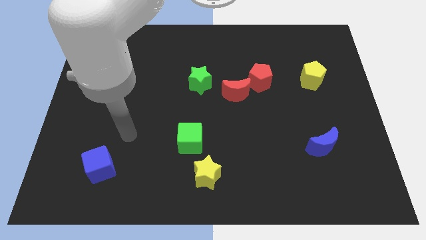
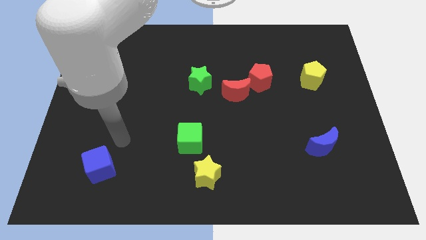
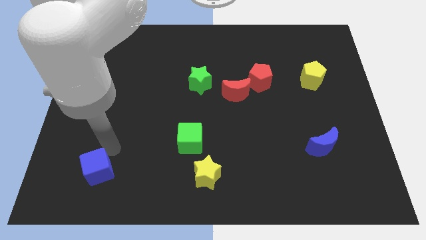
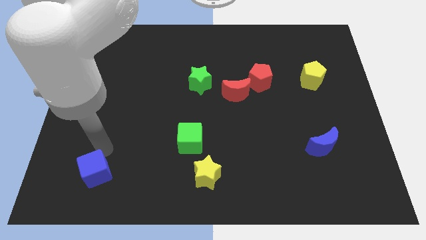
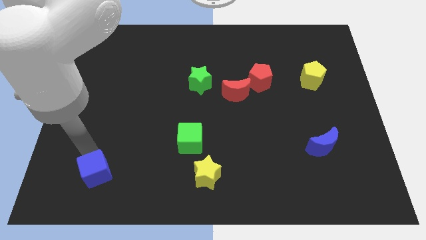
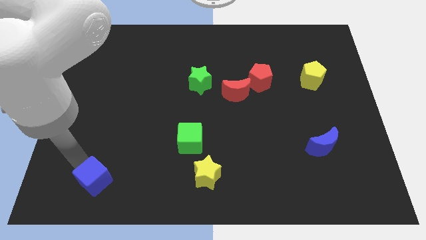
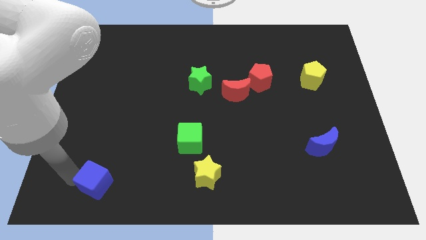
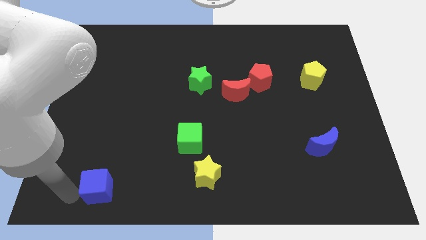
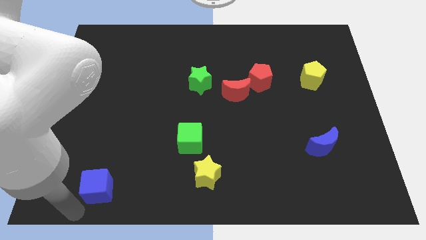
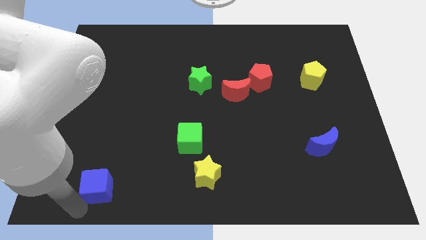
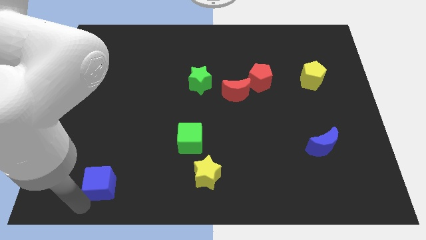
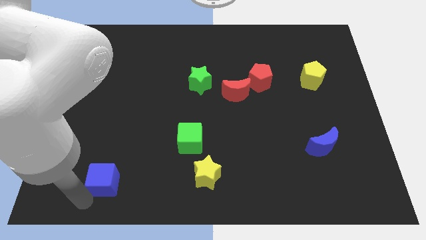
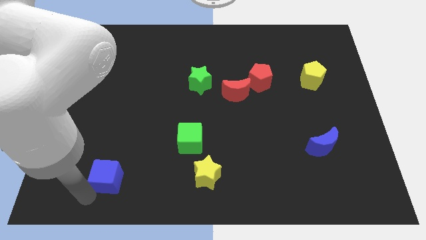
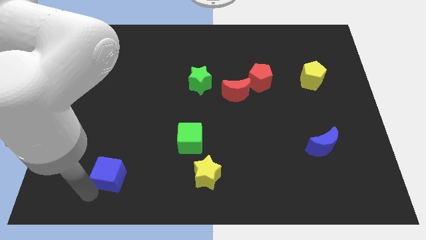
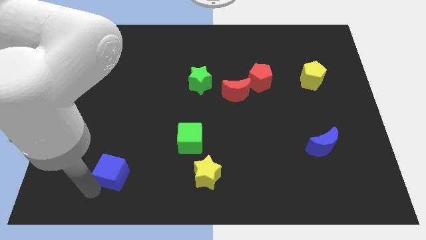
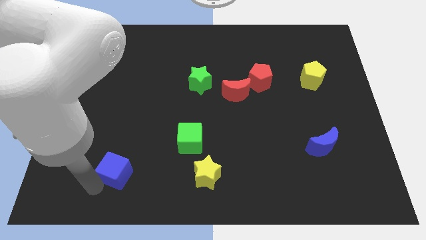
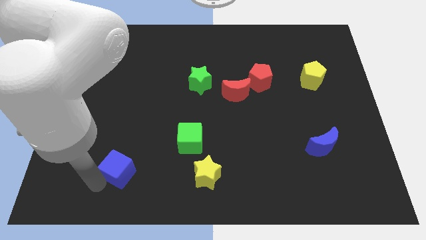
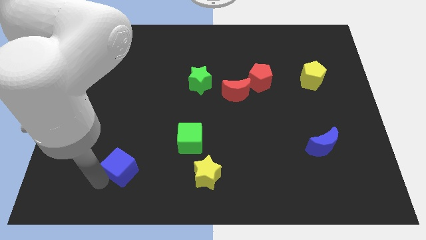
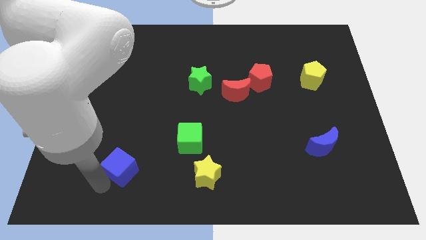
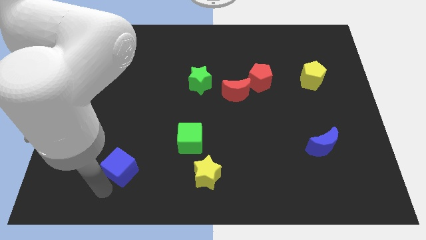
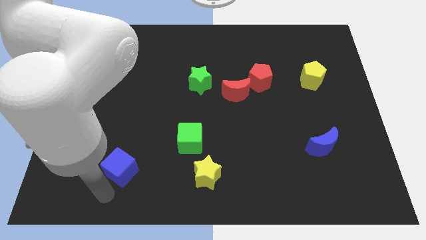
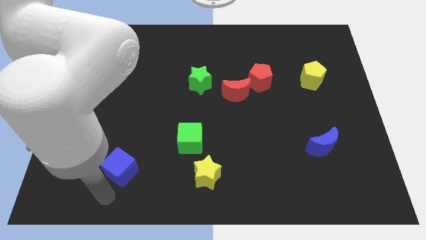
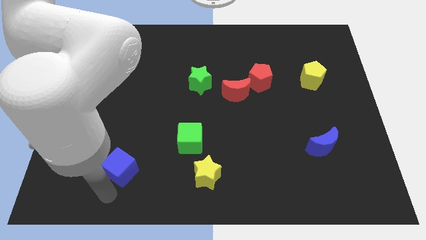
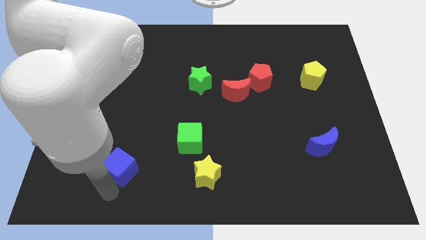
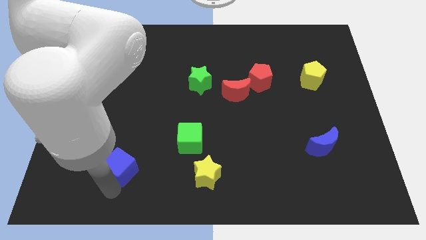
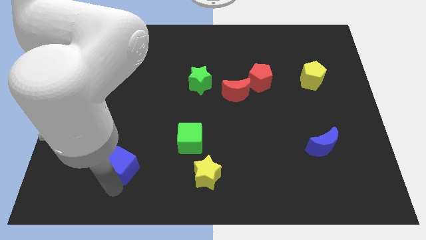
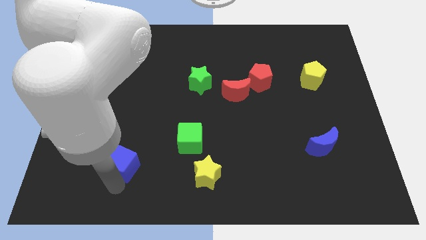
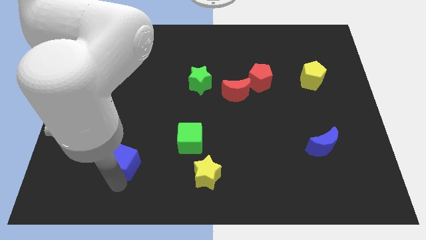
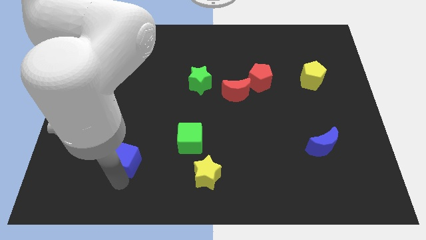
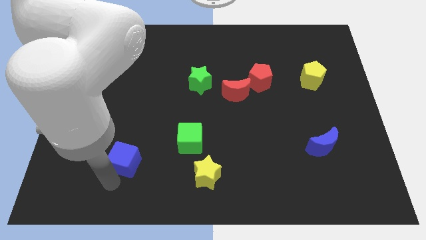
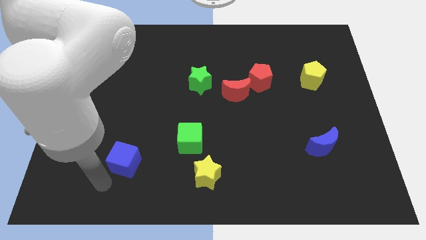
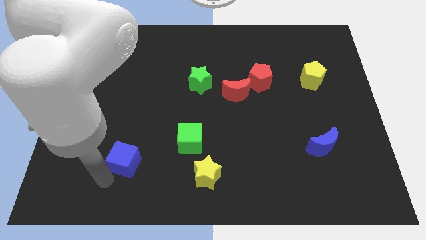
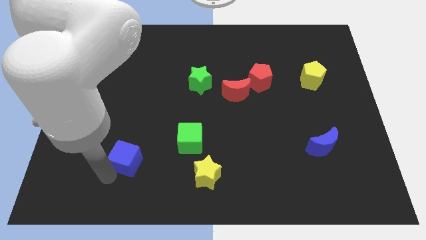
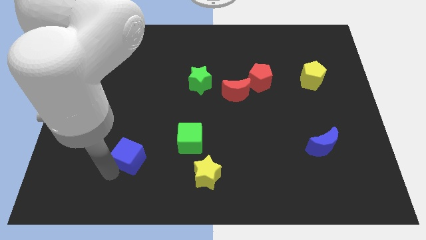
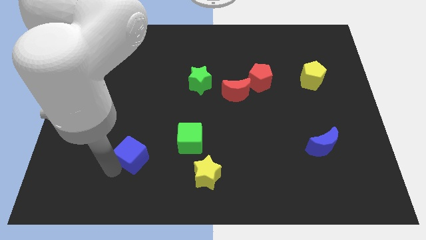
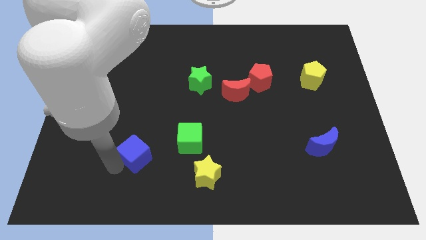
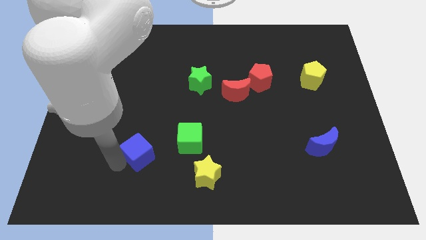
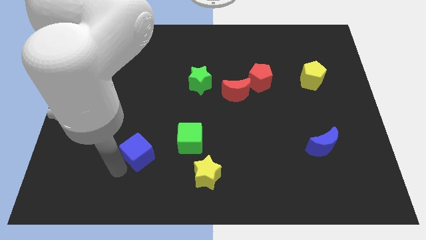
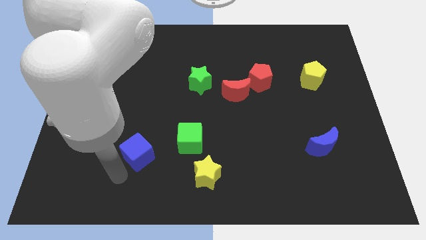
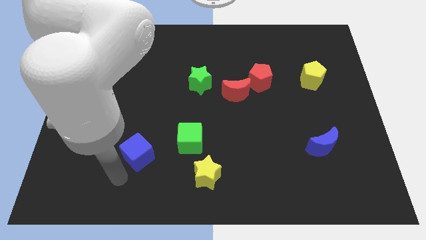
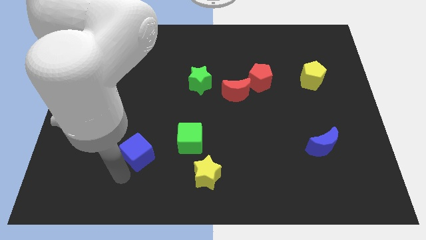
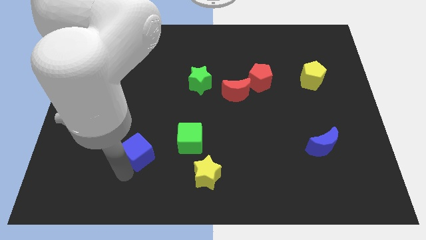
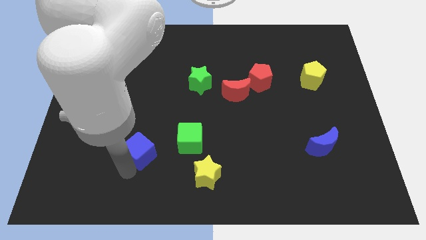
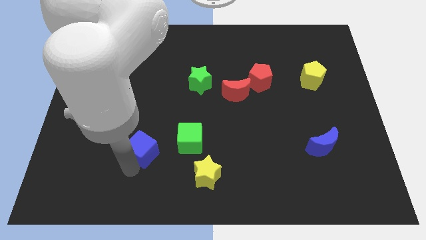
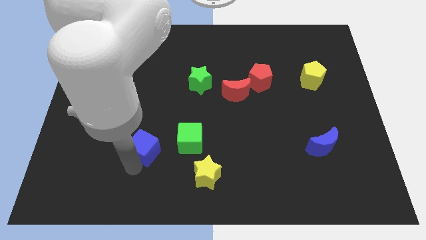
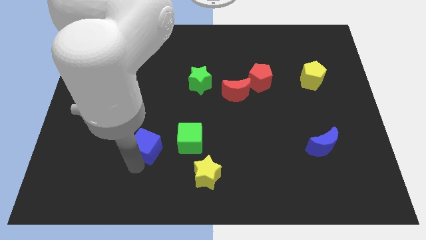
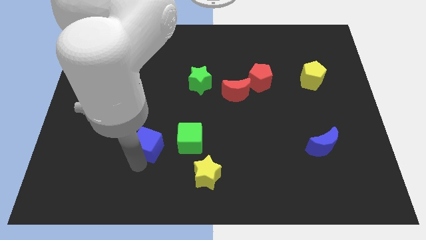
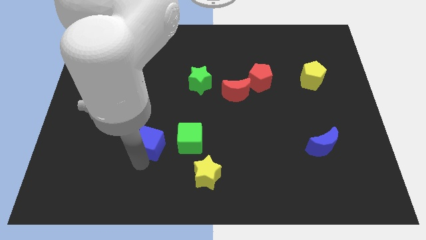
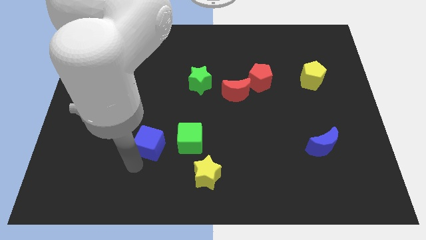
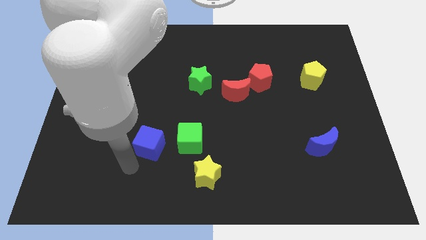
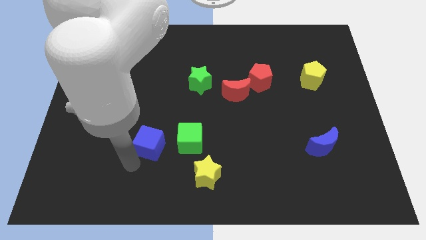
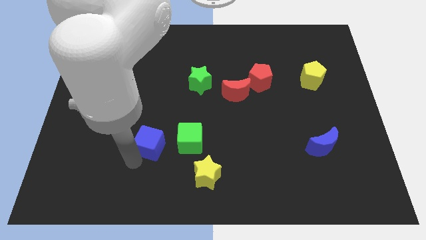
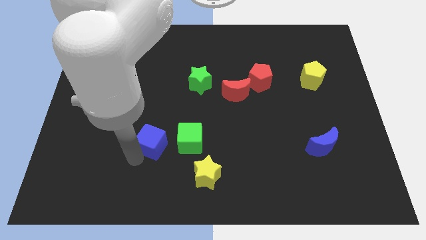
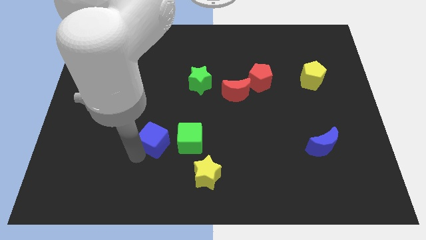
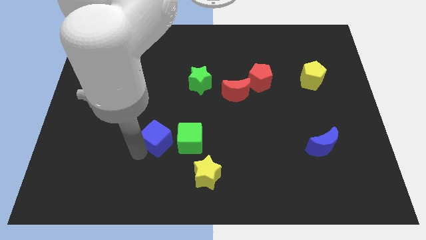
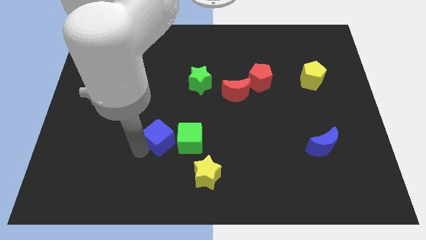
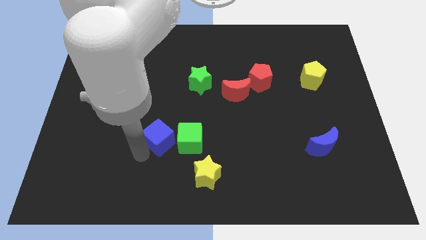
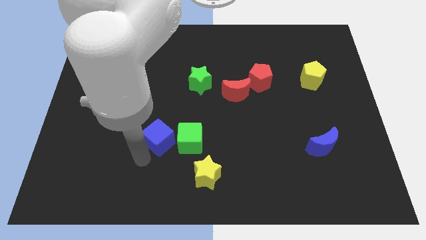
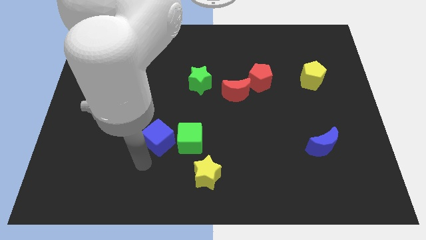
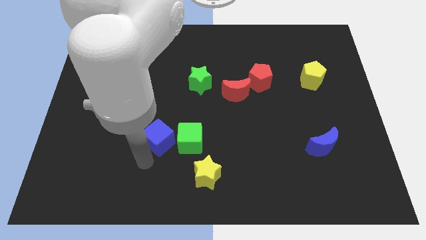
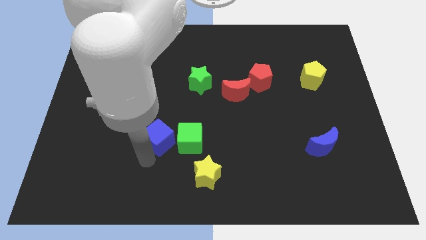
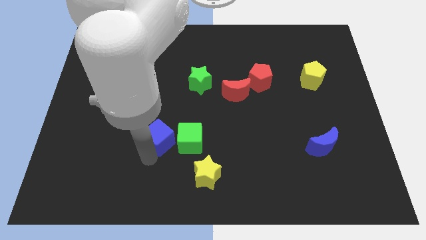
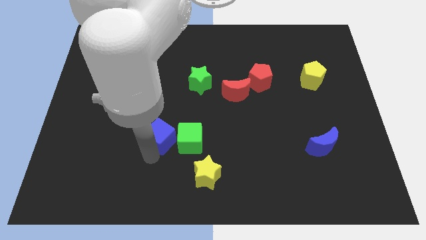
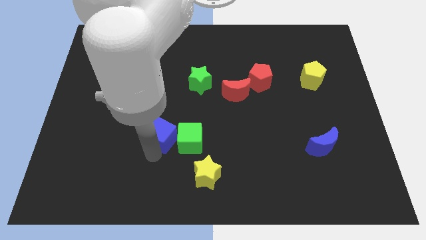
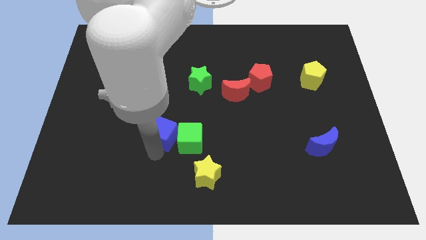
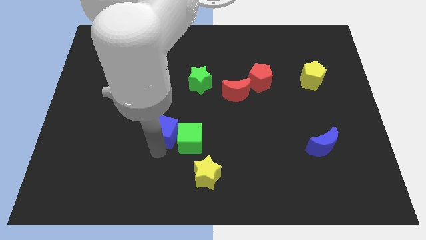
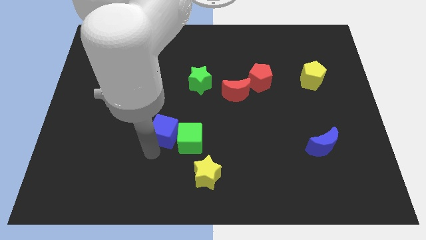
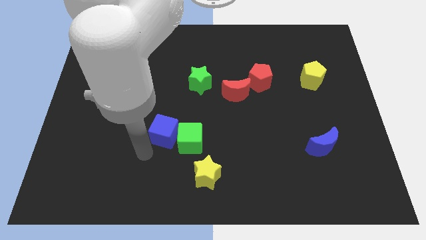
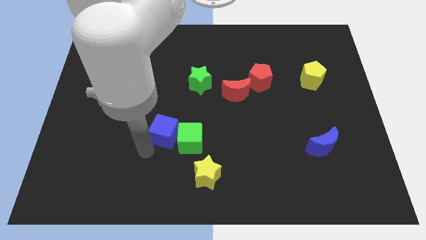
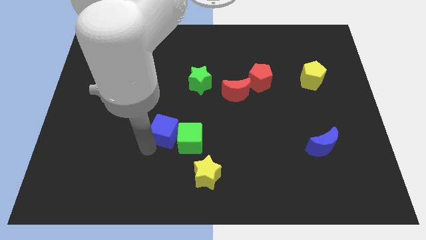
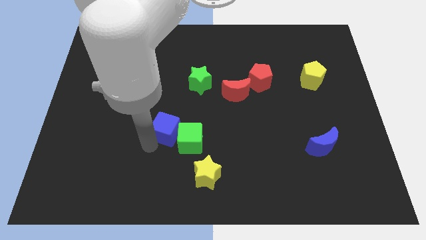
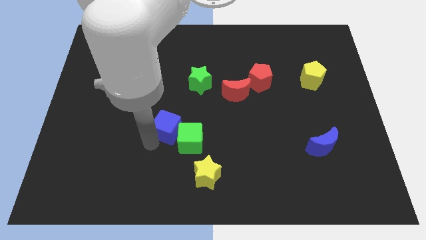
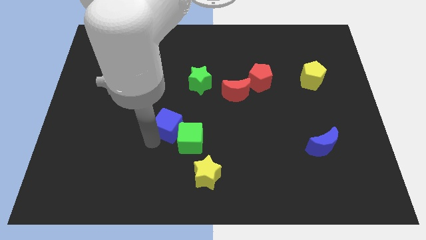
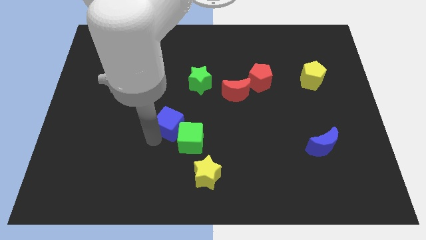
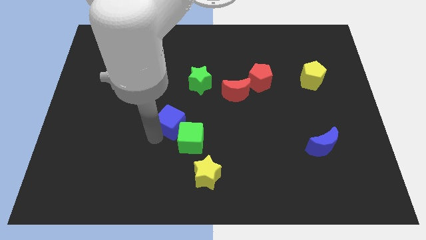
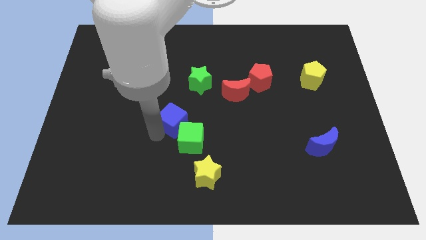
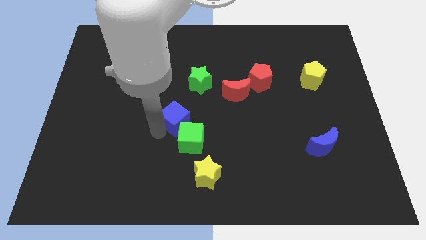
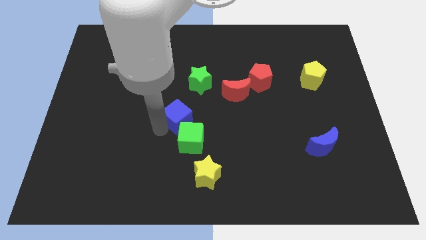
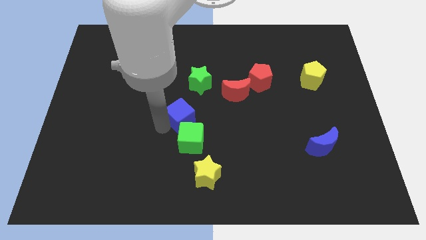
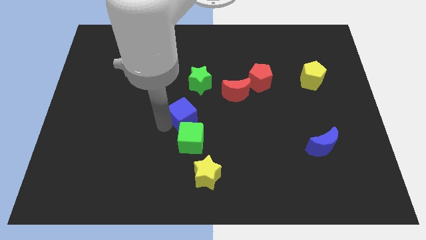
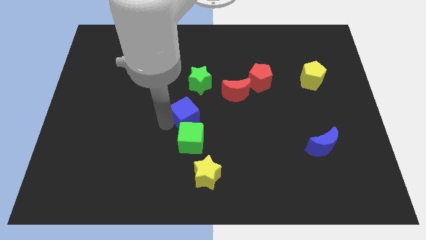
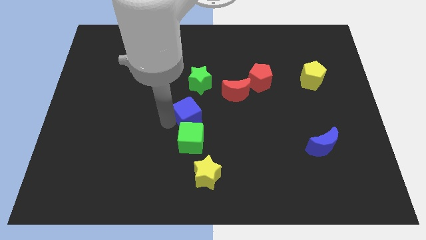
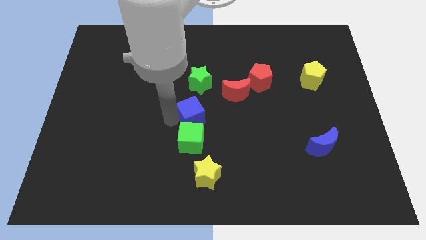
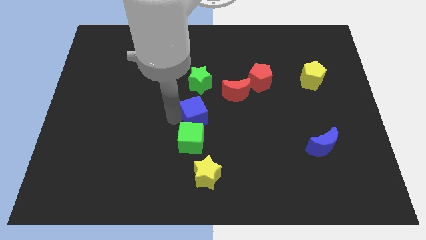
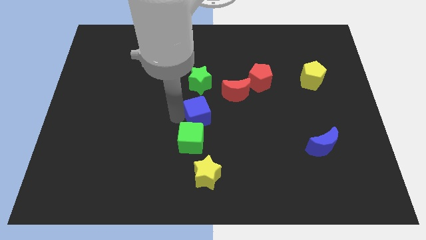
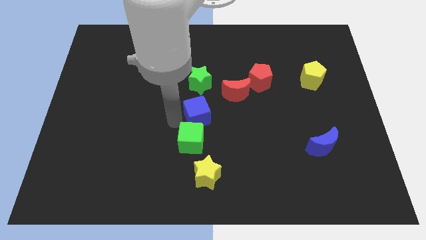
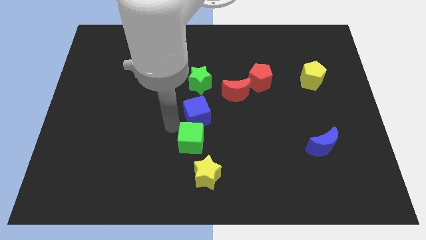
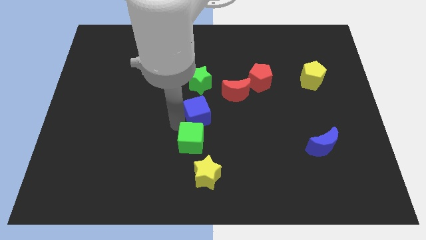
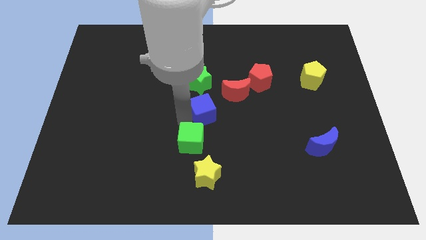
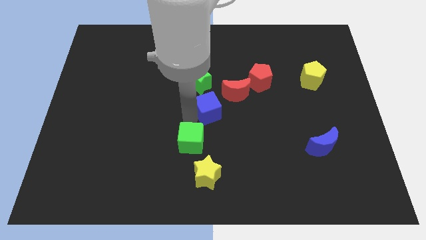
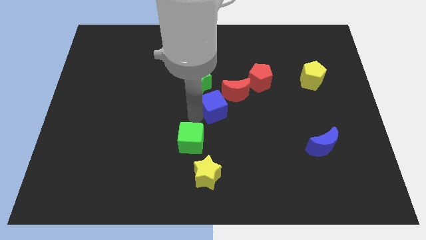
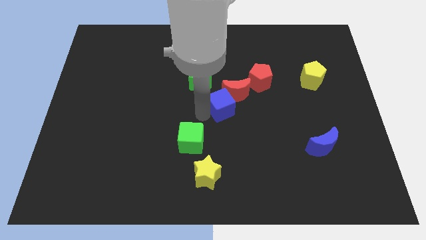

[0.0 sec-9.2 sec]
push the blue cube to the red moon
